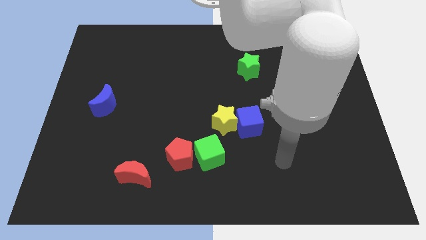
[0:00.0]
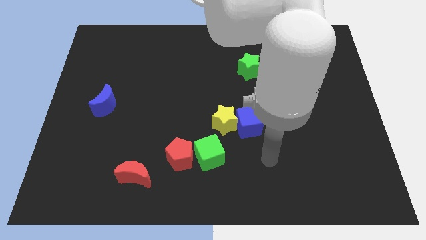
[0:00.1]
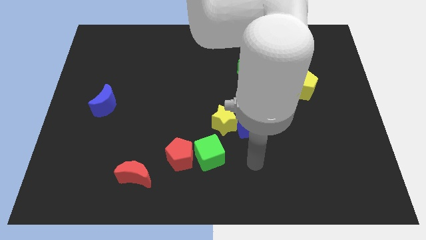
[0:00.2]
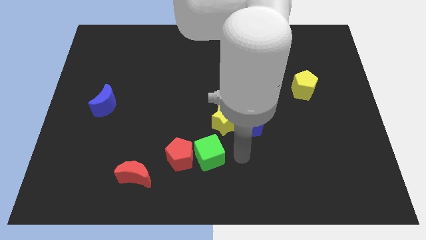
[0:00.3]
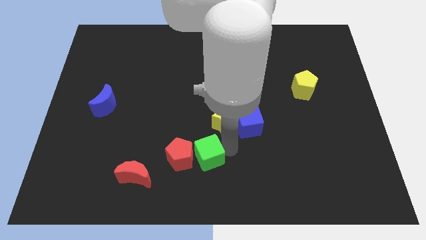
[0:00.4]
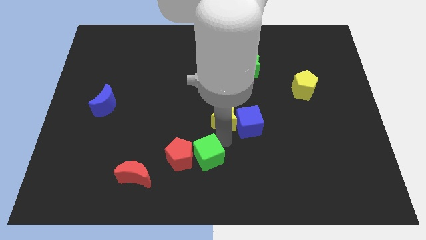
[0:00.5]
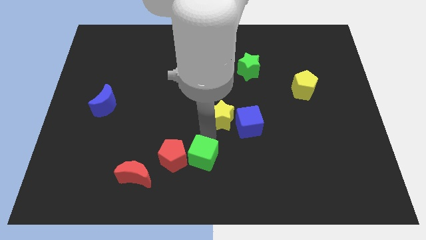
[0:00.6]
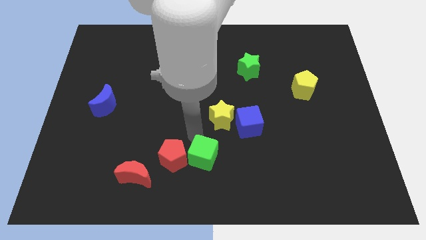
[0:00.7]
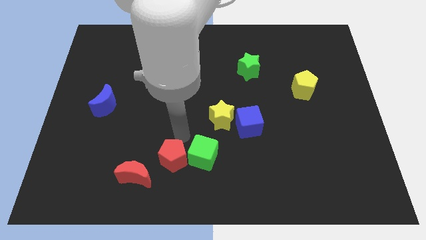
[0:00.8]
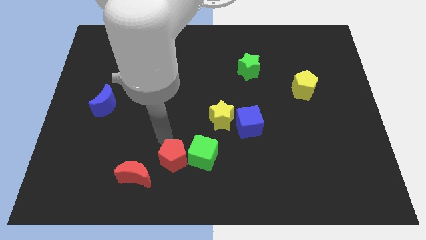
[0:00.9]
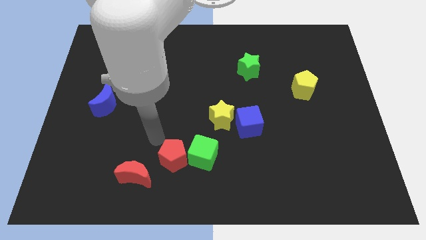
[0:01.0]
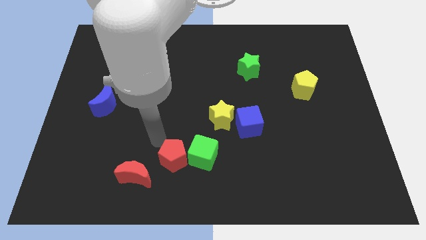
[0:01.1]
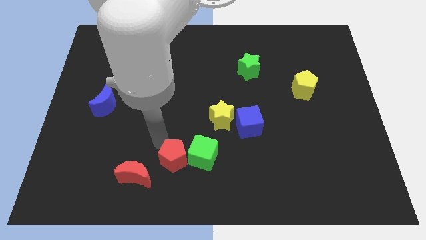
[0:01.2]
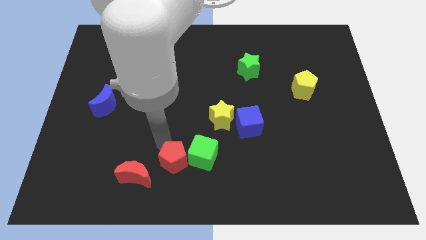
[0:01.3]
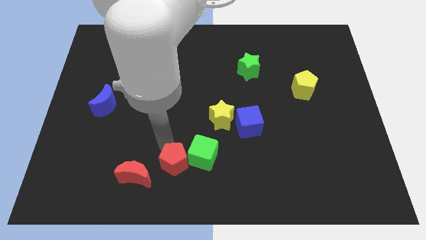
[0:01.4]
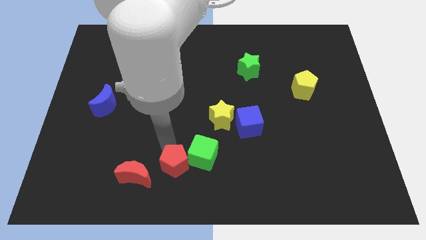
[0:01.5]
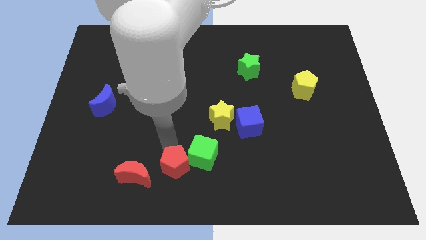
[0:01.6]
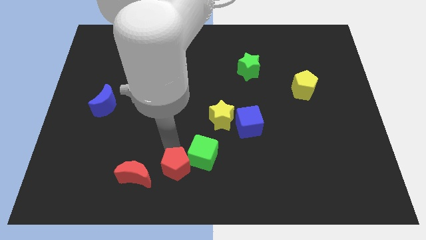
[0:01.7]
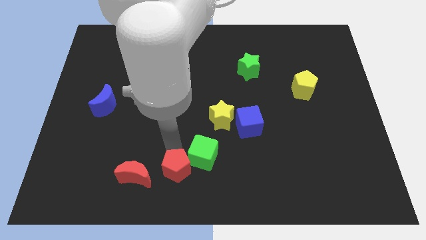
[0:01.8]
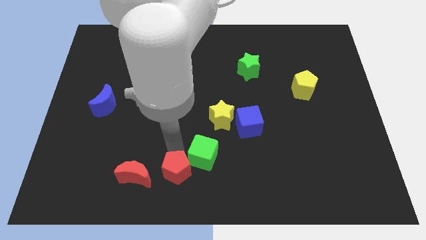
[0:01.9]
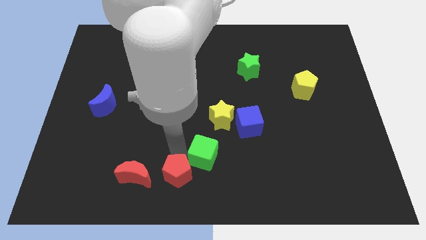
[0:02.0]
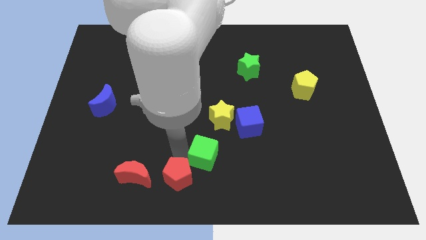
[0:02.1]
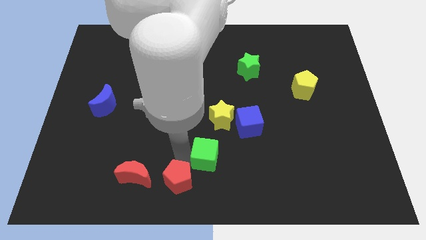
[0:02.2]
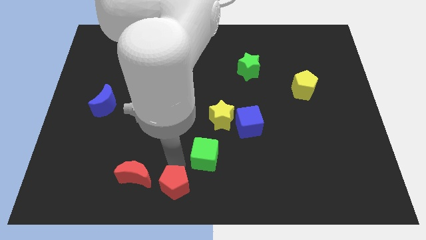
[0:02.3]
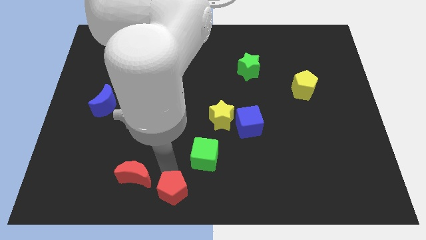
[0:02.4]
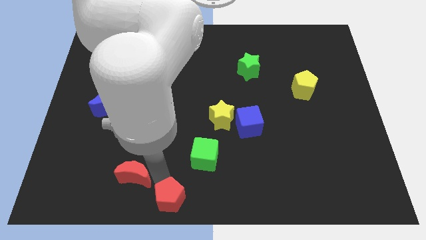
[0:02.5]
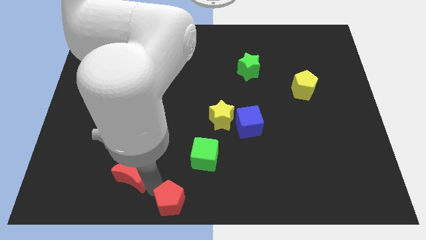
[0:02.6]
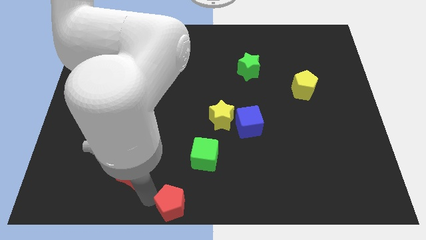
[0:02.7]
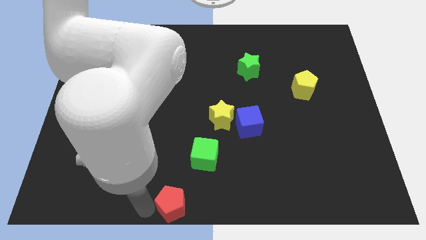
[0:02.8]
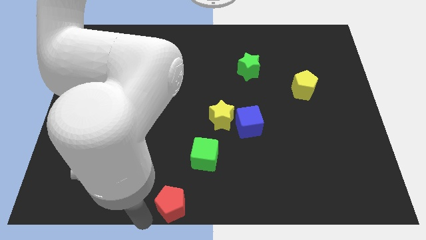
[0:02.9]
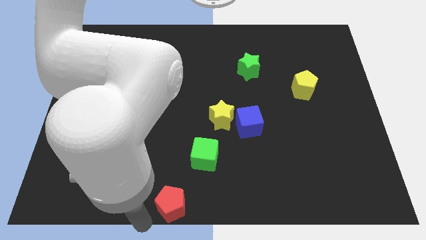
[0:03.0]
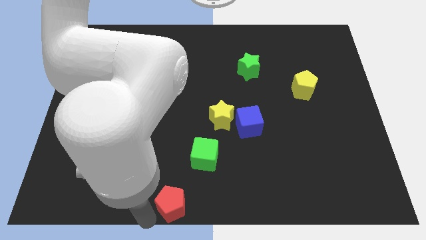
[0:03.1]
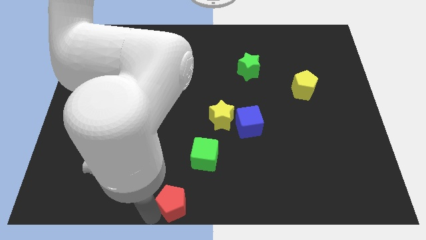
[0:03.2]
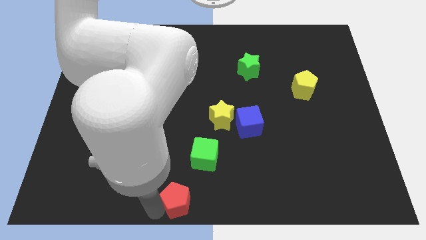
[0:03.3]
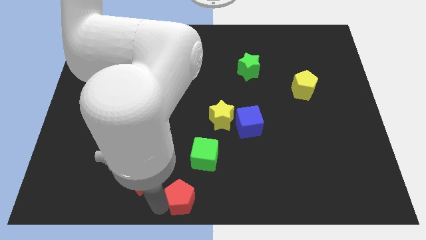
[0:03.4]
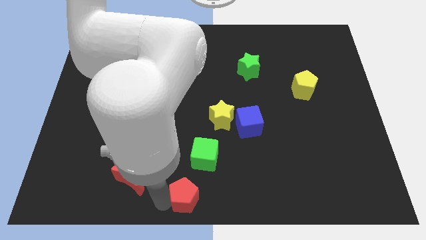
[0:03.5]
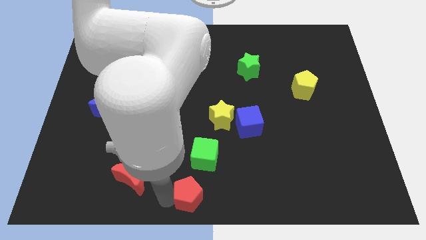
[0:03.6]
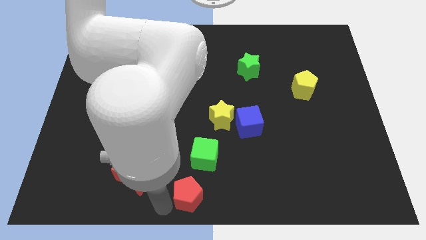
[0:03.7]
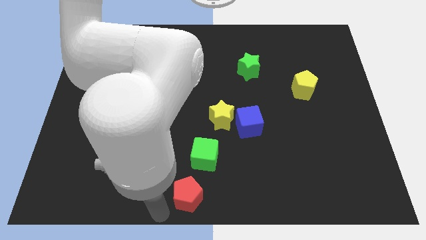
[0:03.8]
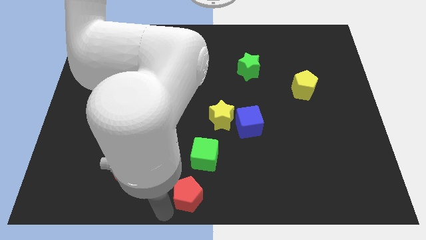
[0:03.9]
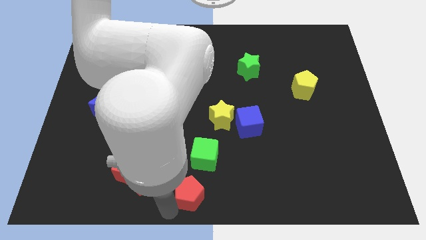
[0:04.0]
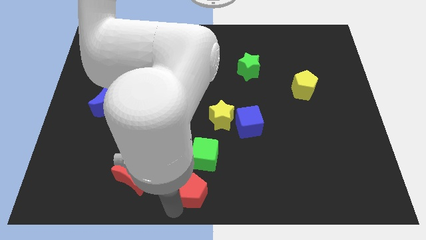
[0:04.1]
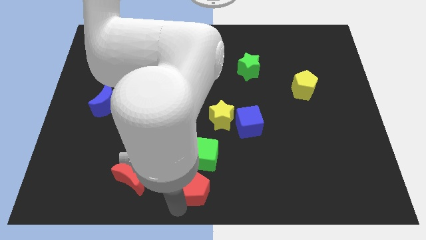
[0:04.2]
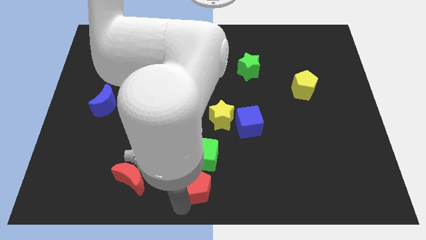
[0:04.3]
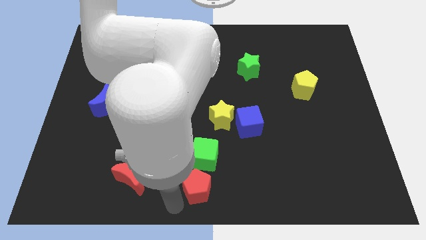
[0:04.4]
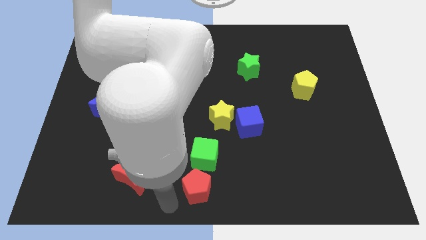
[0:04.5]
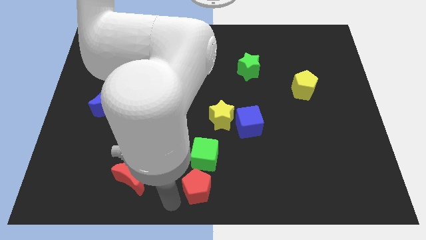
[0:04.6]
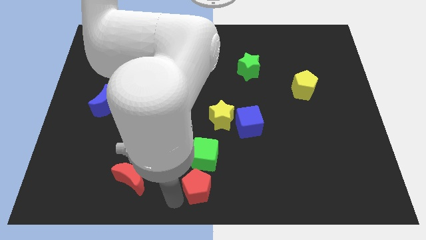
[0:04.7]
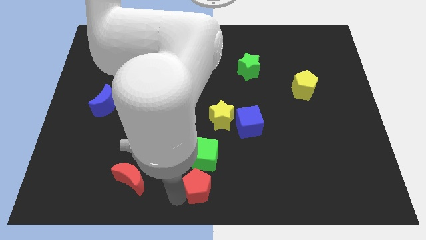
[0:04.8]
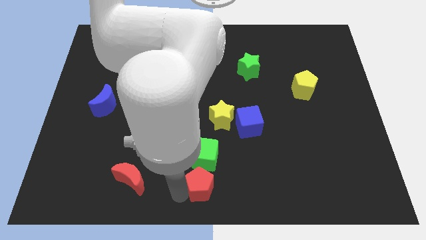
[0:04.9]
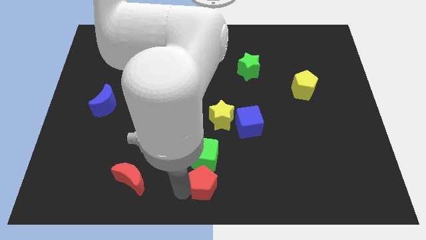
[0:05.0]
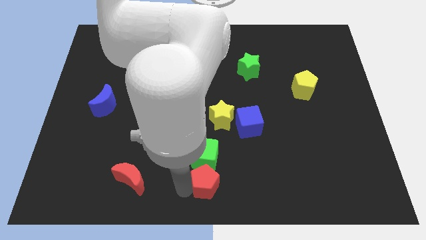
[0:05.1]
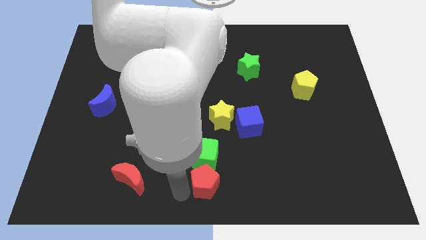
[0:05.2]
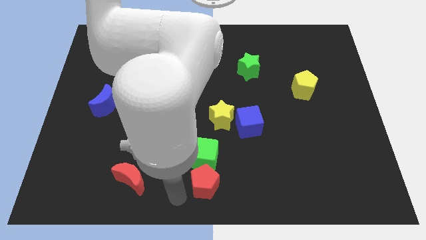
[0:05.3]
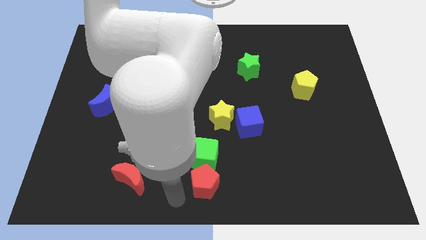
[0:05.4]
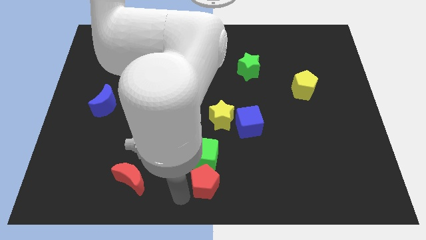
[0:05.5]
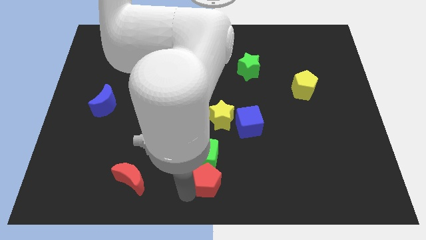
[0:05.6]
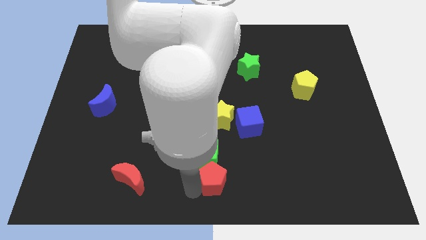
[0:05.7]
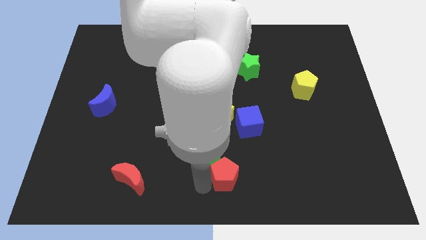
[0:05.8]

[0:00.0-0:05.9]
move the red pentagon right somewhat

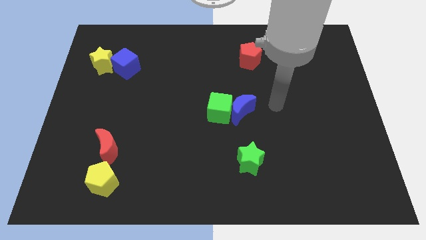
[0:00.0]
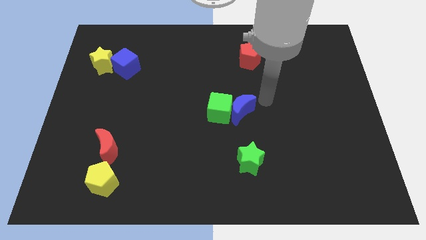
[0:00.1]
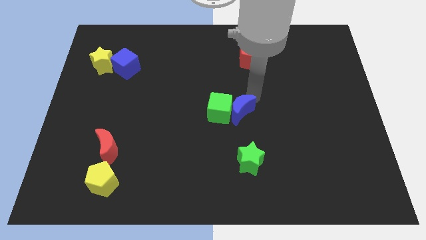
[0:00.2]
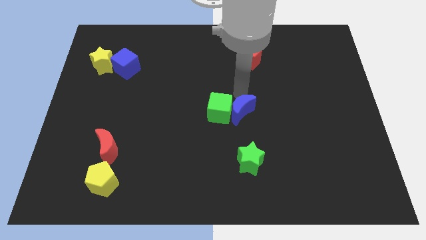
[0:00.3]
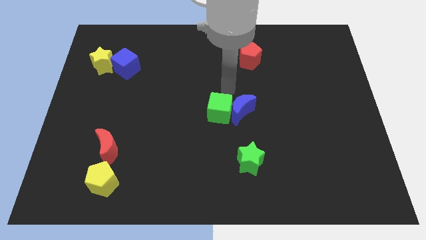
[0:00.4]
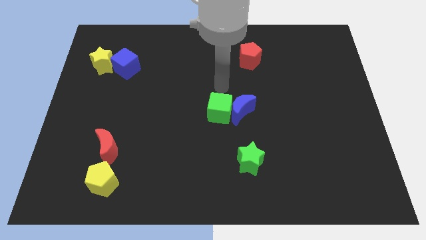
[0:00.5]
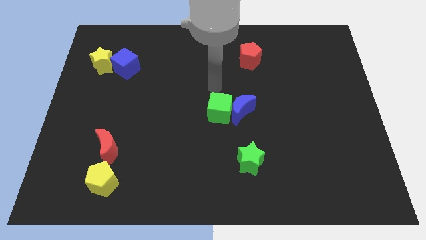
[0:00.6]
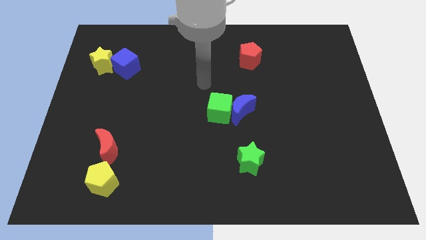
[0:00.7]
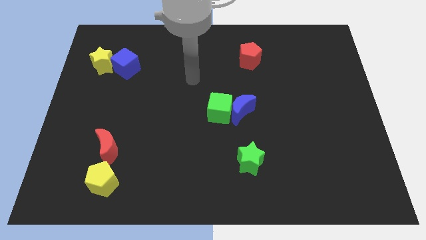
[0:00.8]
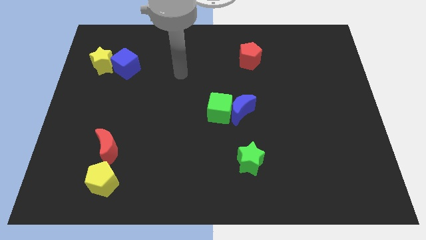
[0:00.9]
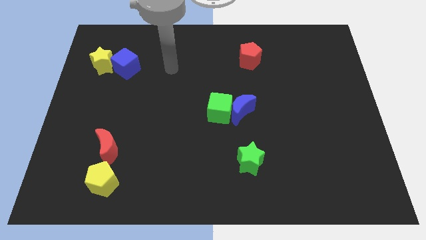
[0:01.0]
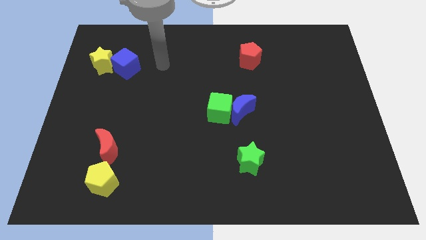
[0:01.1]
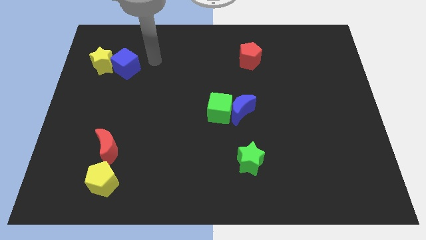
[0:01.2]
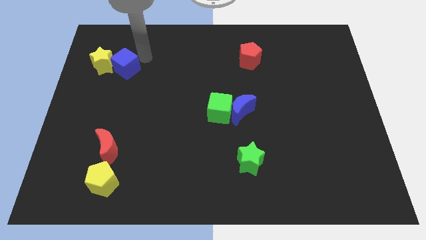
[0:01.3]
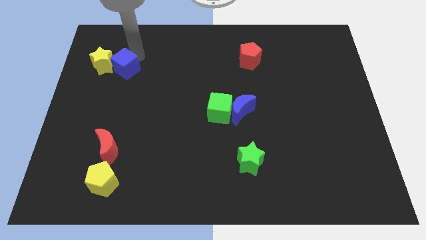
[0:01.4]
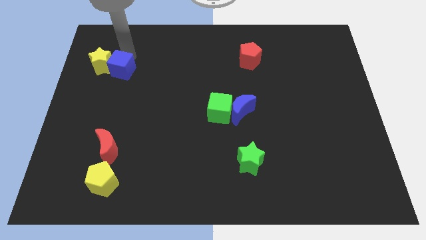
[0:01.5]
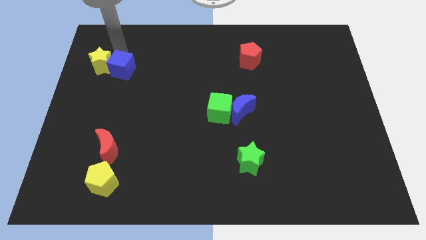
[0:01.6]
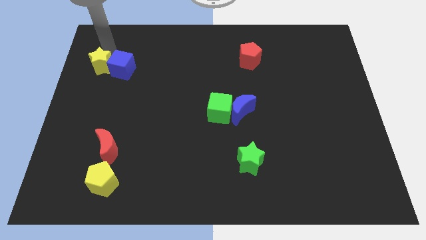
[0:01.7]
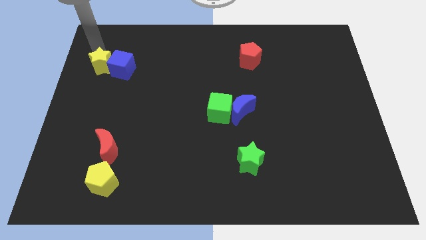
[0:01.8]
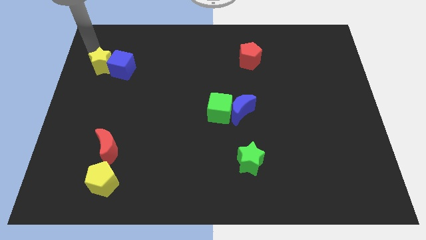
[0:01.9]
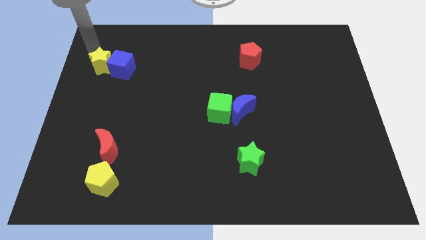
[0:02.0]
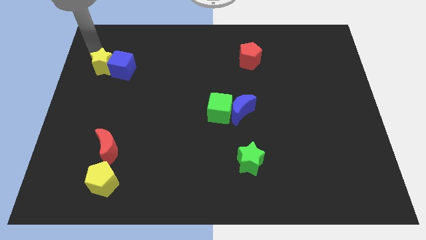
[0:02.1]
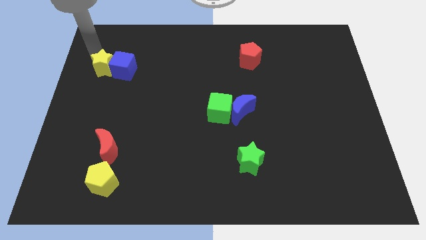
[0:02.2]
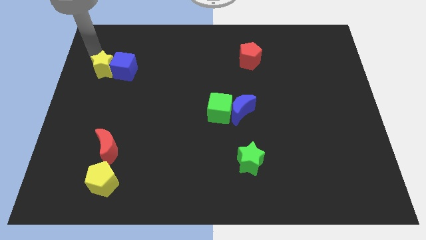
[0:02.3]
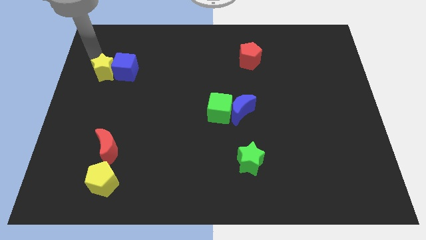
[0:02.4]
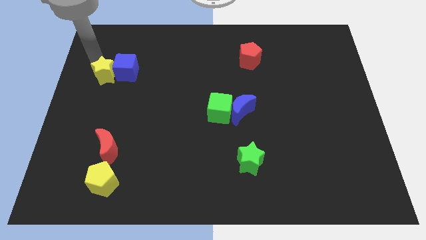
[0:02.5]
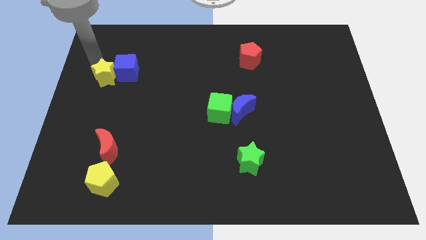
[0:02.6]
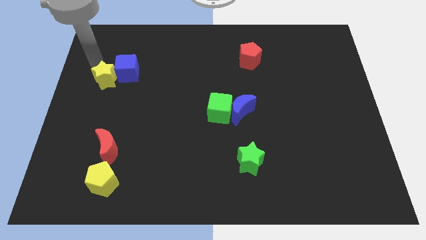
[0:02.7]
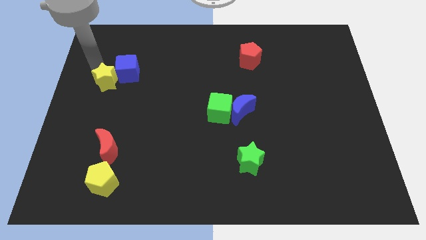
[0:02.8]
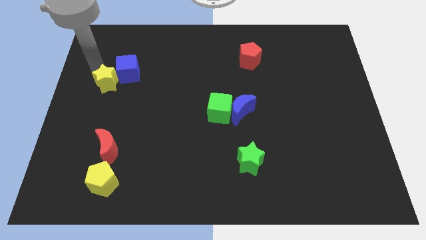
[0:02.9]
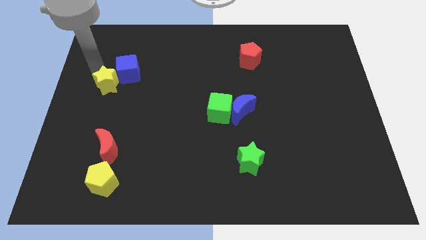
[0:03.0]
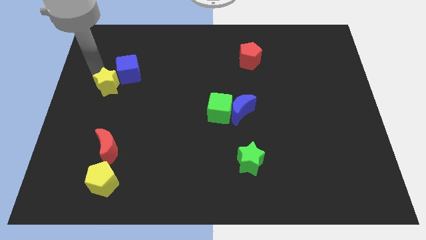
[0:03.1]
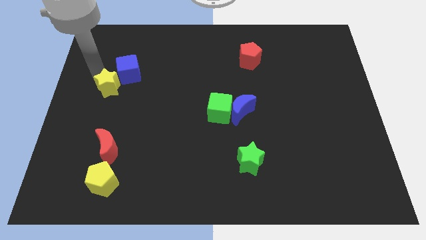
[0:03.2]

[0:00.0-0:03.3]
push the yellow star somewhat down and then right
